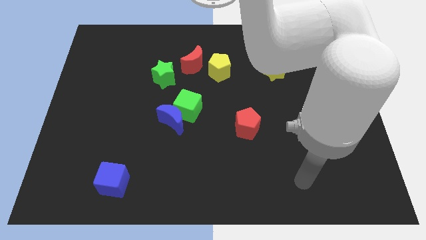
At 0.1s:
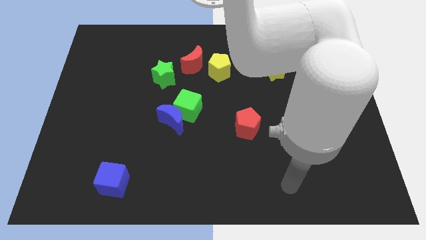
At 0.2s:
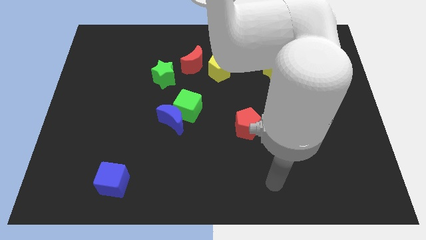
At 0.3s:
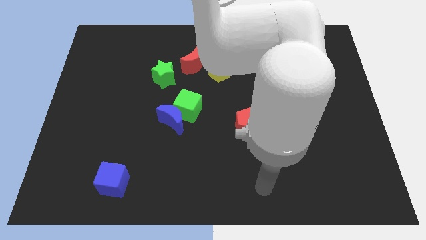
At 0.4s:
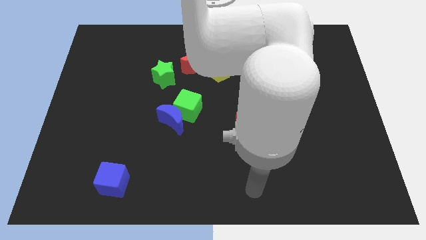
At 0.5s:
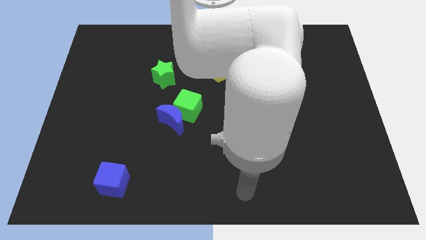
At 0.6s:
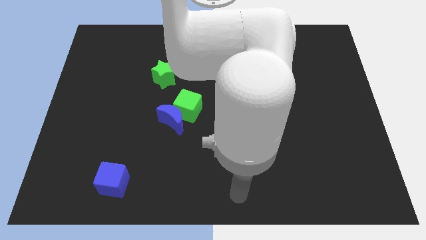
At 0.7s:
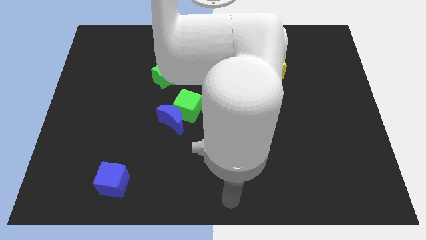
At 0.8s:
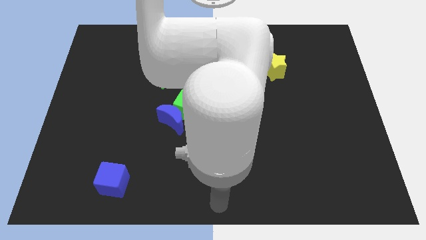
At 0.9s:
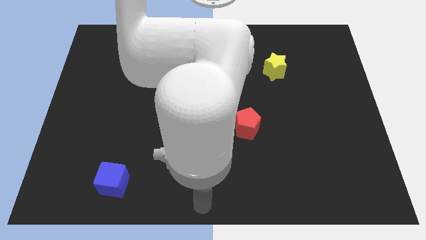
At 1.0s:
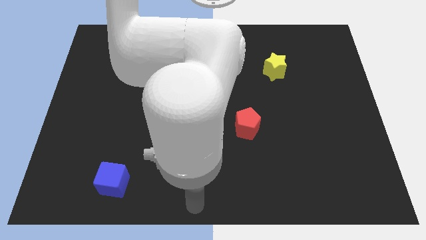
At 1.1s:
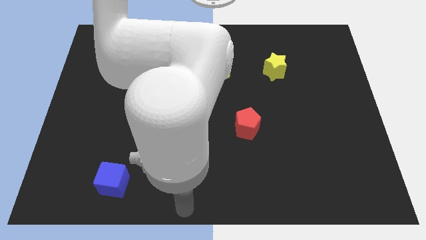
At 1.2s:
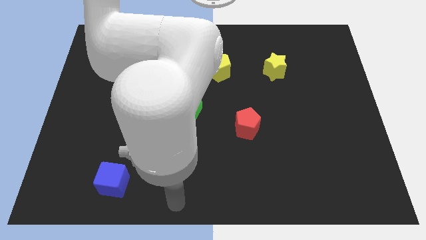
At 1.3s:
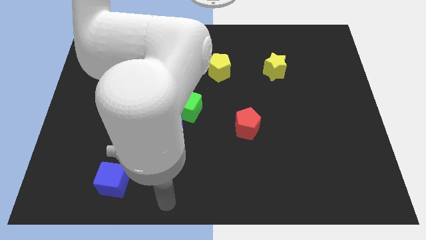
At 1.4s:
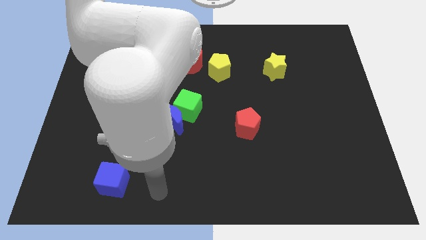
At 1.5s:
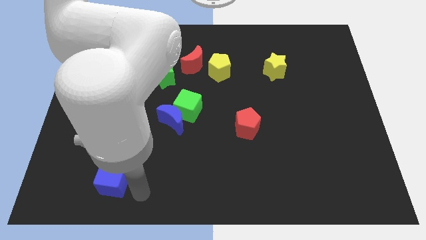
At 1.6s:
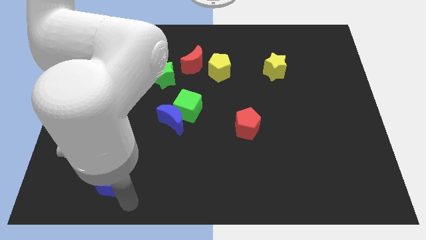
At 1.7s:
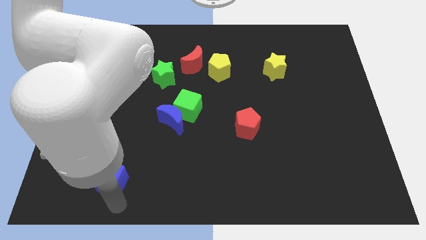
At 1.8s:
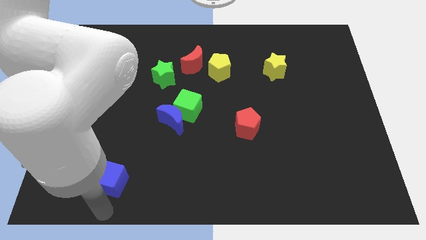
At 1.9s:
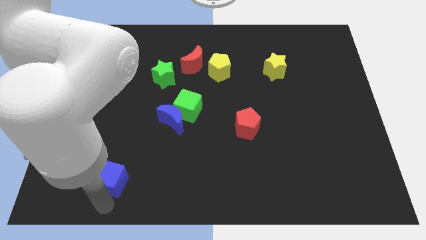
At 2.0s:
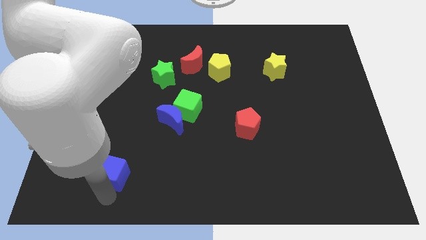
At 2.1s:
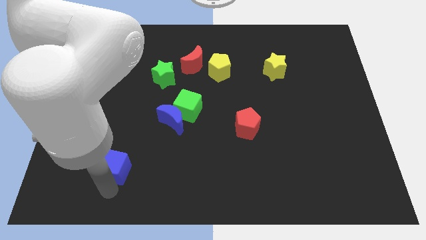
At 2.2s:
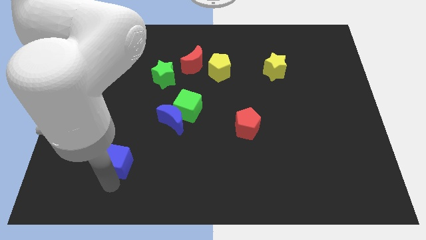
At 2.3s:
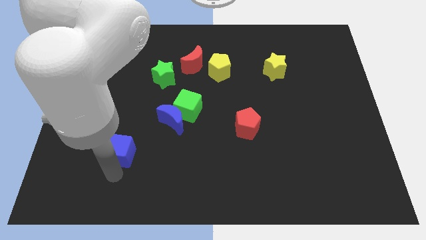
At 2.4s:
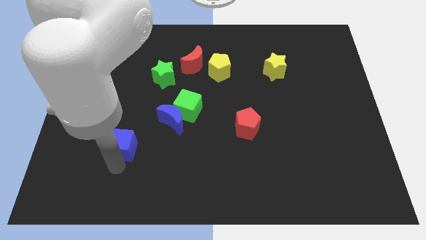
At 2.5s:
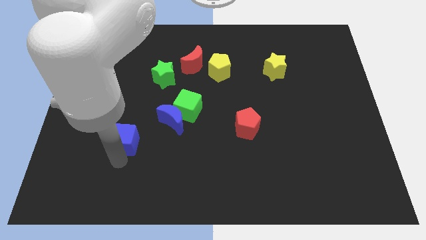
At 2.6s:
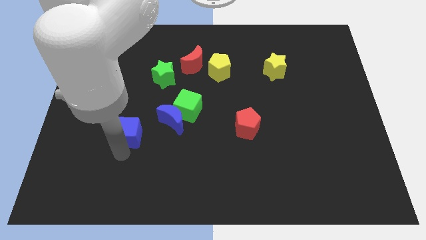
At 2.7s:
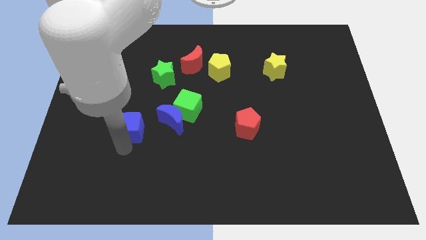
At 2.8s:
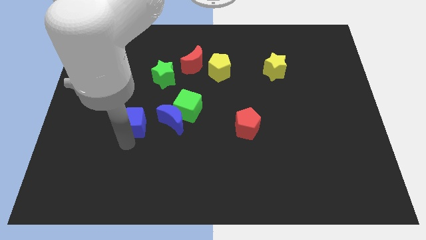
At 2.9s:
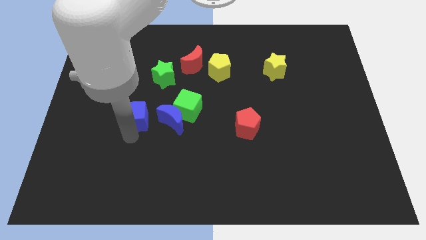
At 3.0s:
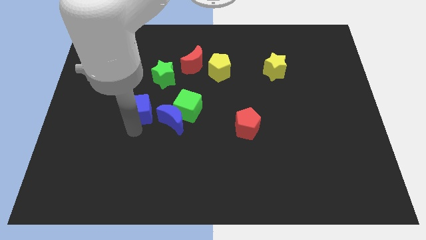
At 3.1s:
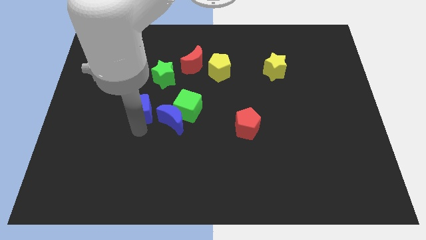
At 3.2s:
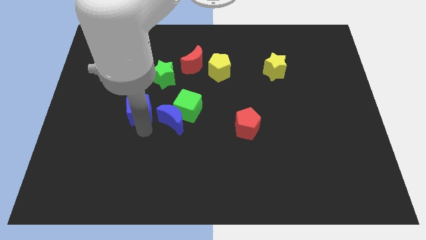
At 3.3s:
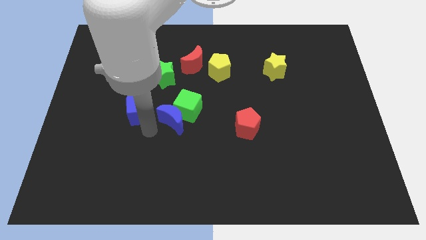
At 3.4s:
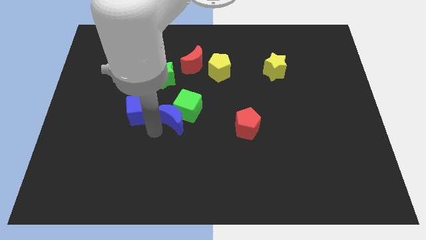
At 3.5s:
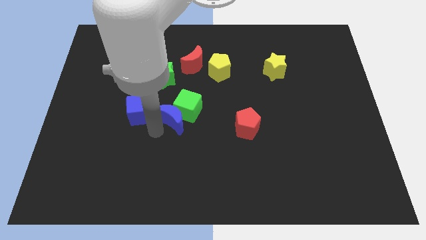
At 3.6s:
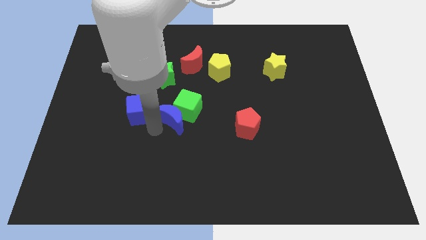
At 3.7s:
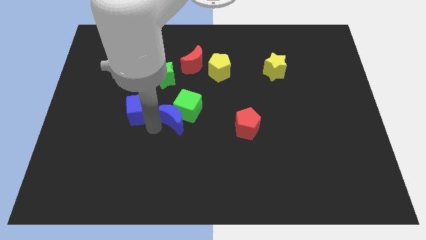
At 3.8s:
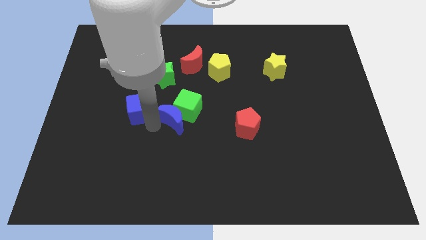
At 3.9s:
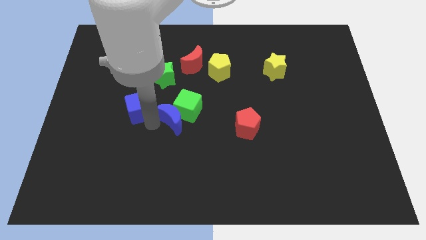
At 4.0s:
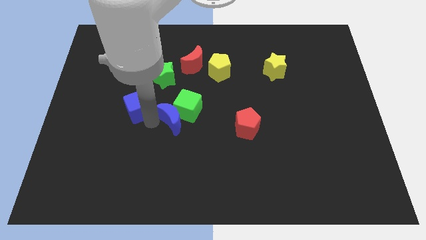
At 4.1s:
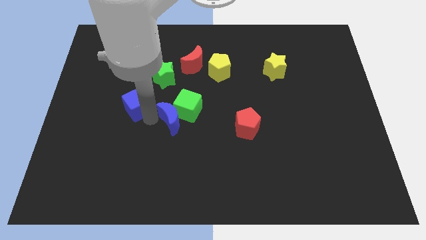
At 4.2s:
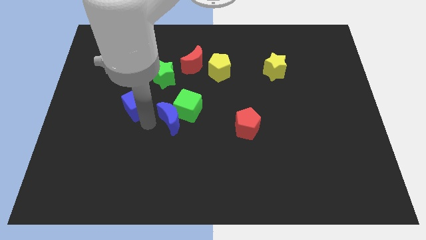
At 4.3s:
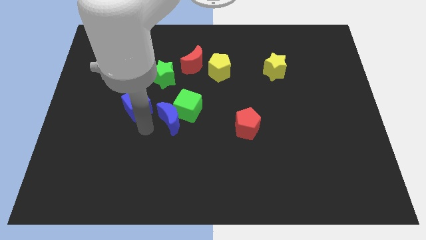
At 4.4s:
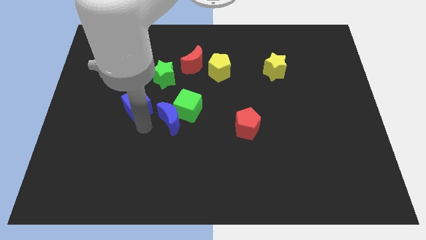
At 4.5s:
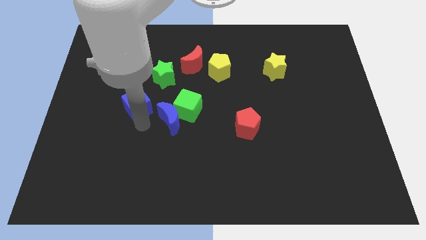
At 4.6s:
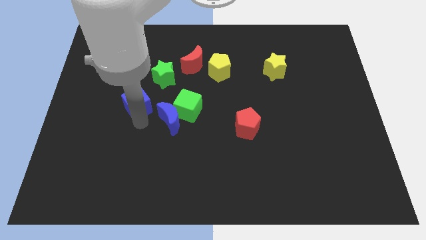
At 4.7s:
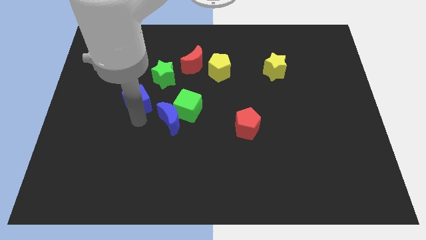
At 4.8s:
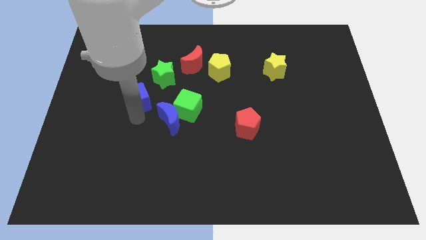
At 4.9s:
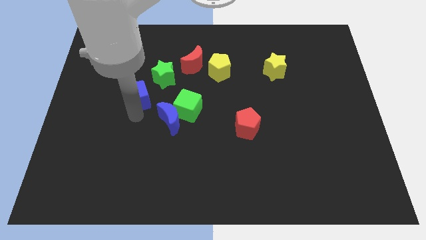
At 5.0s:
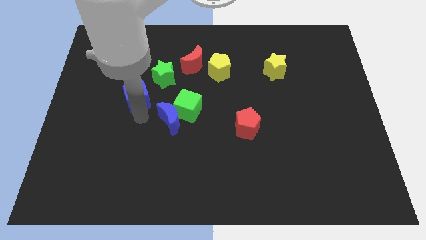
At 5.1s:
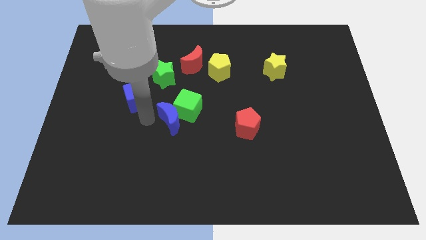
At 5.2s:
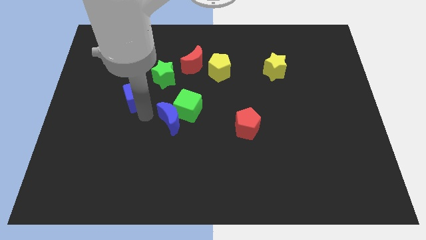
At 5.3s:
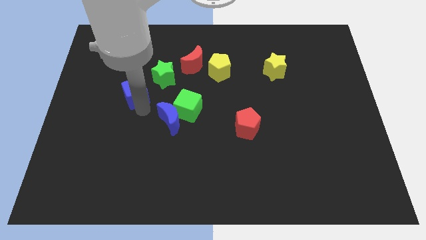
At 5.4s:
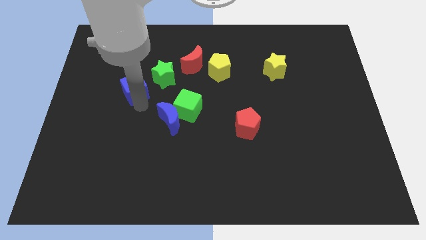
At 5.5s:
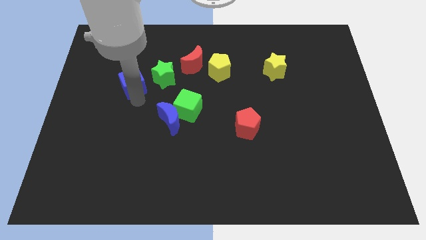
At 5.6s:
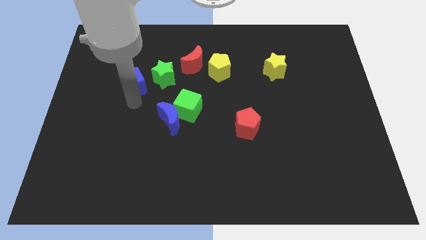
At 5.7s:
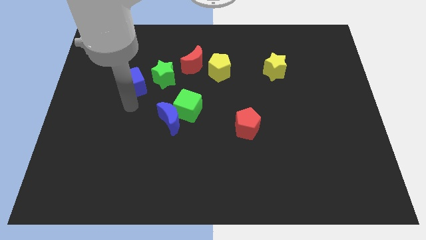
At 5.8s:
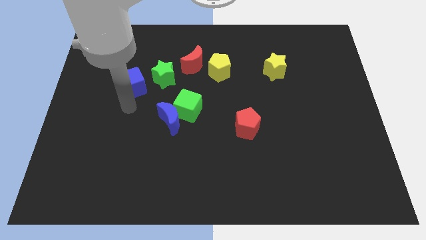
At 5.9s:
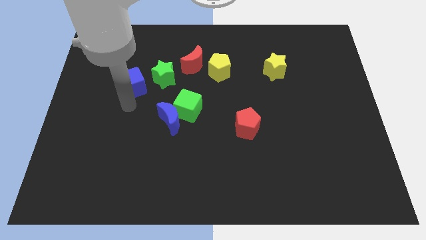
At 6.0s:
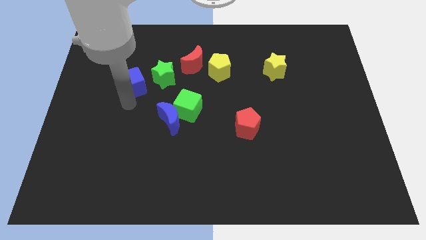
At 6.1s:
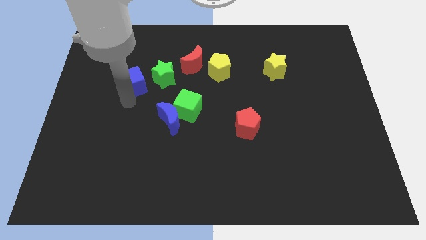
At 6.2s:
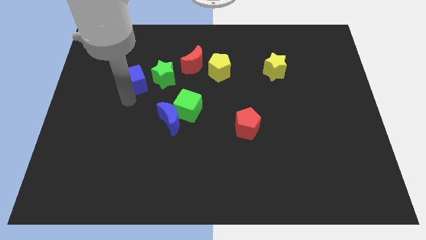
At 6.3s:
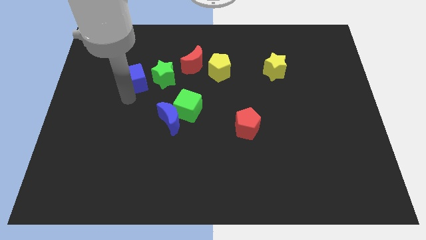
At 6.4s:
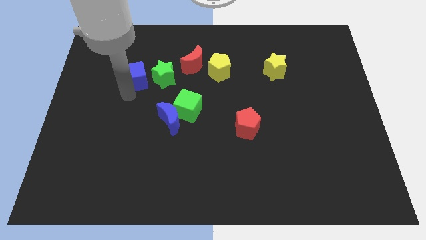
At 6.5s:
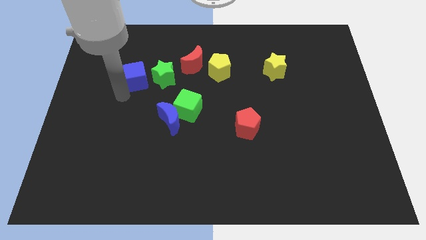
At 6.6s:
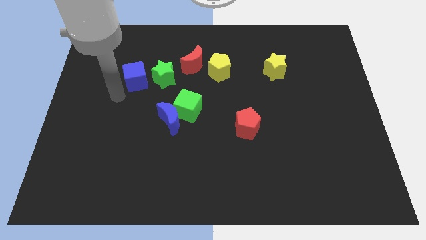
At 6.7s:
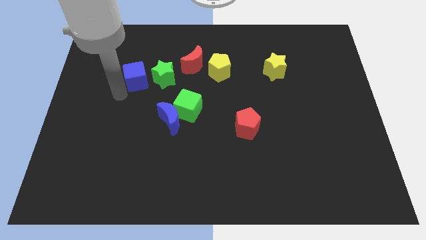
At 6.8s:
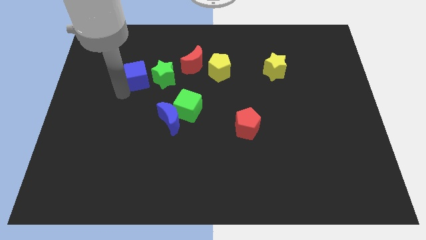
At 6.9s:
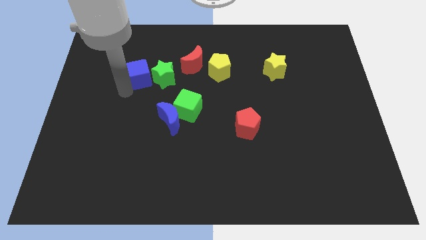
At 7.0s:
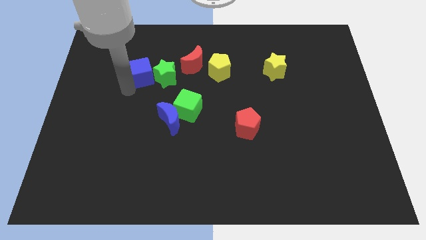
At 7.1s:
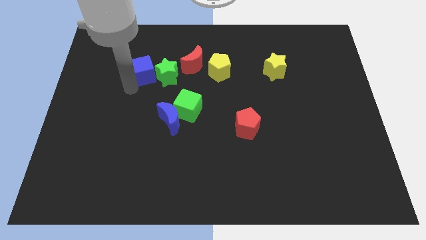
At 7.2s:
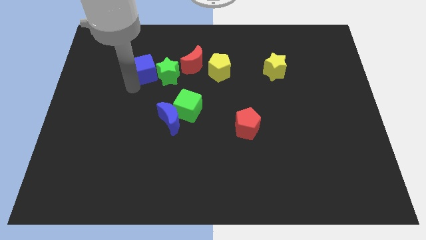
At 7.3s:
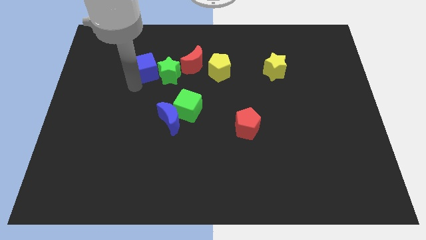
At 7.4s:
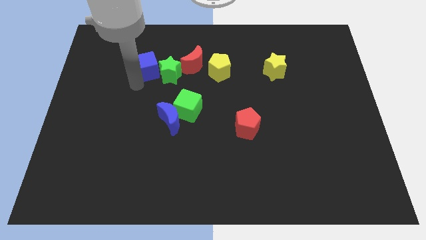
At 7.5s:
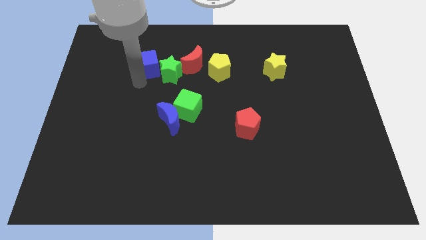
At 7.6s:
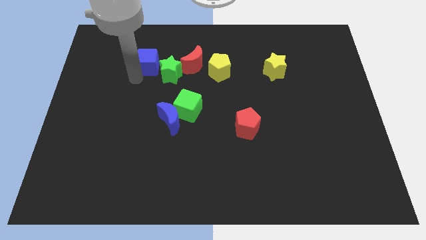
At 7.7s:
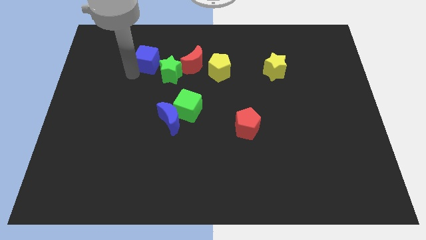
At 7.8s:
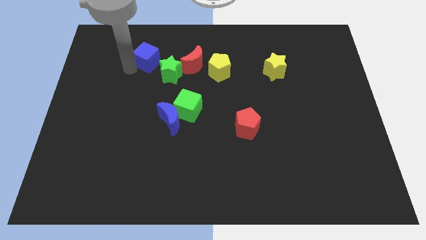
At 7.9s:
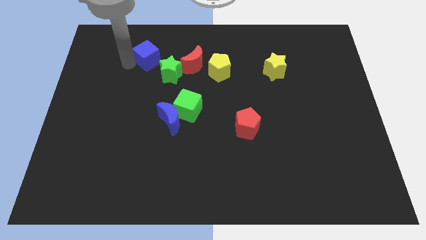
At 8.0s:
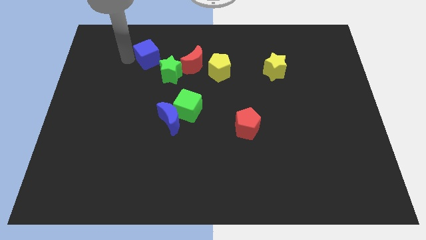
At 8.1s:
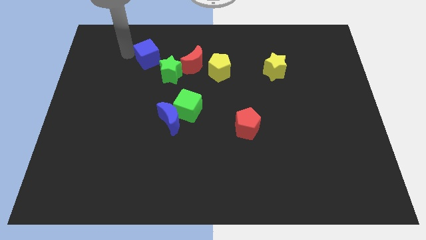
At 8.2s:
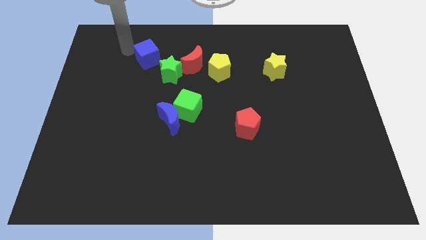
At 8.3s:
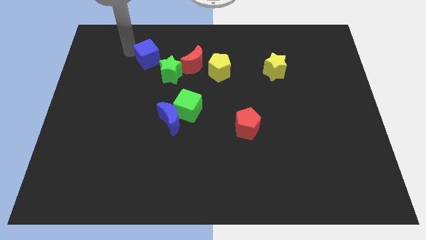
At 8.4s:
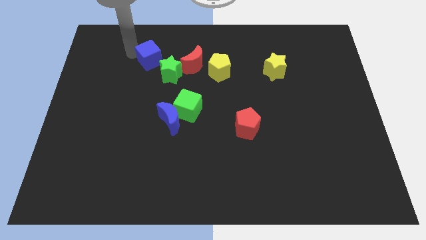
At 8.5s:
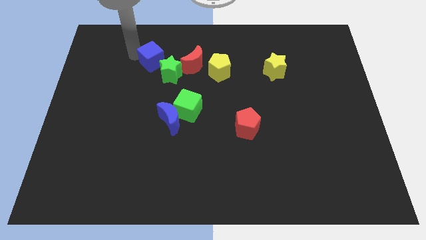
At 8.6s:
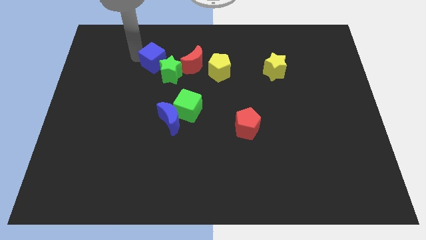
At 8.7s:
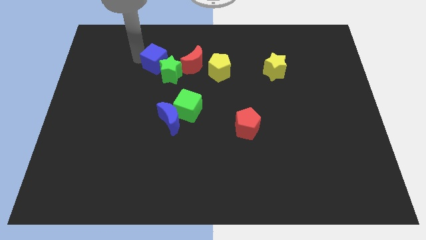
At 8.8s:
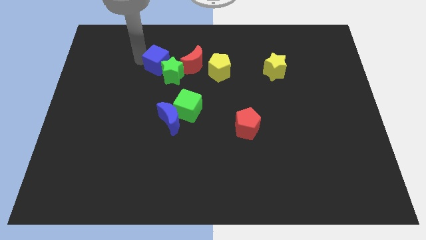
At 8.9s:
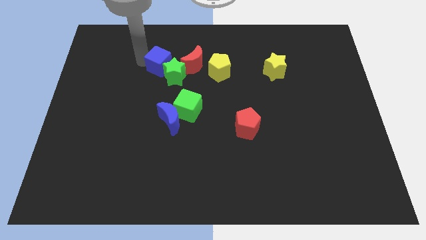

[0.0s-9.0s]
put the blue cube left of the yellow pentagon
